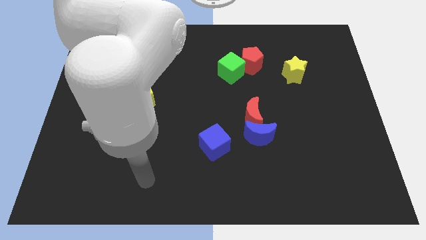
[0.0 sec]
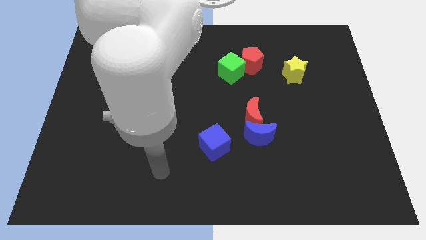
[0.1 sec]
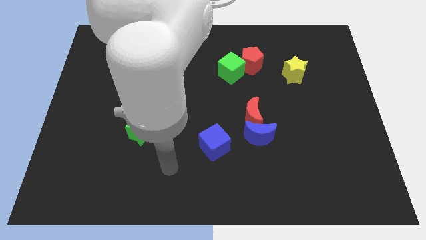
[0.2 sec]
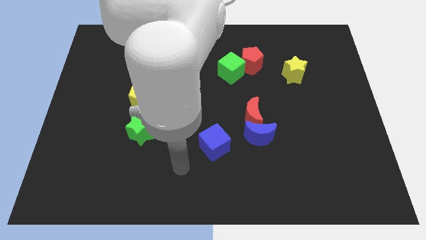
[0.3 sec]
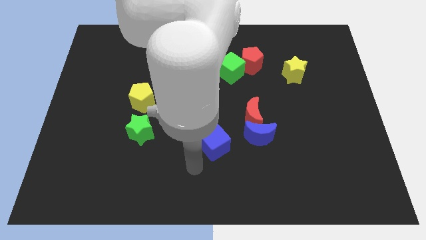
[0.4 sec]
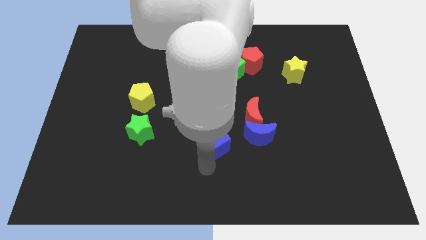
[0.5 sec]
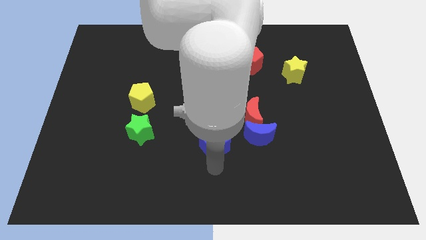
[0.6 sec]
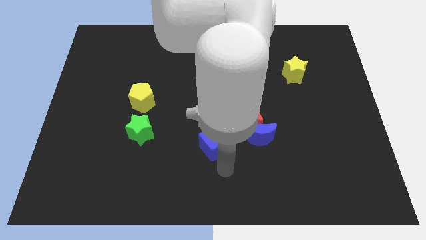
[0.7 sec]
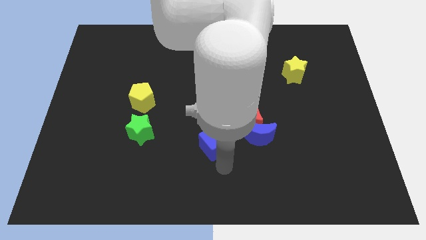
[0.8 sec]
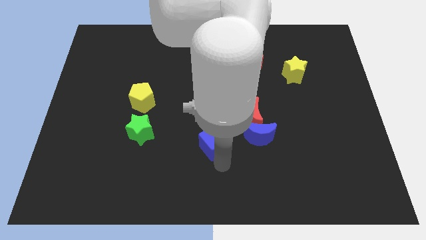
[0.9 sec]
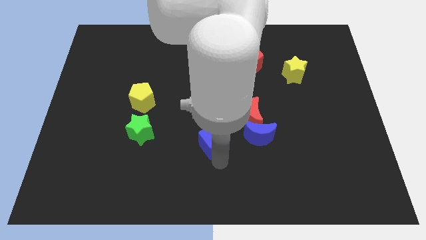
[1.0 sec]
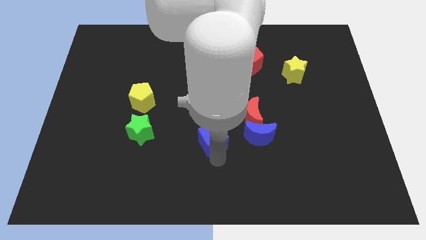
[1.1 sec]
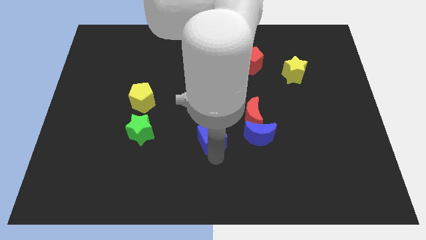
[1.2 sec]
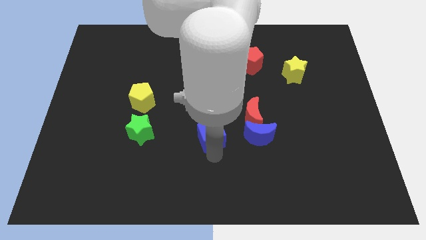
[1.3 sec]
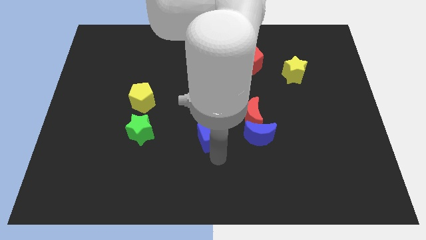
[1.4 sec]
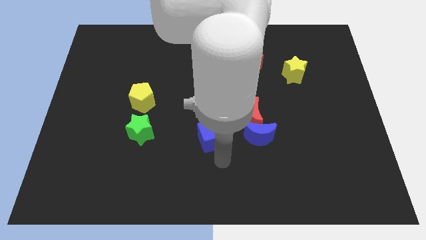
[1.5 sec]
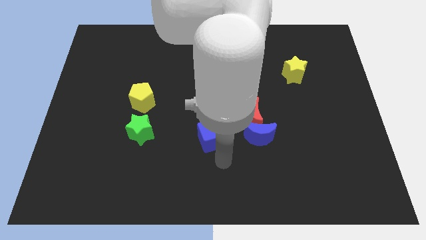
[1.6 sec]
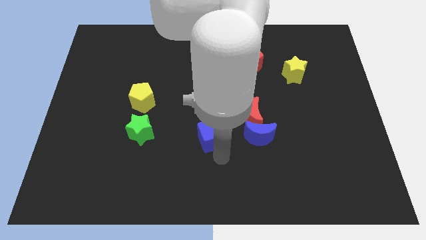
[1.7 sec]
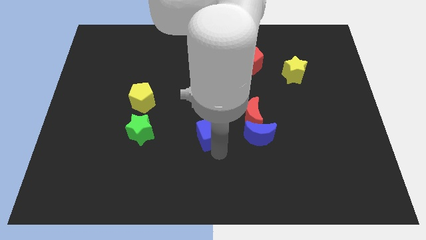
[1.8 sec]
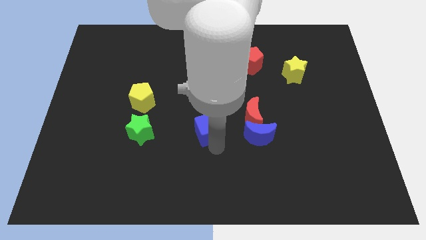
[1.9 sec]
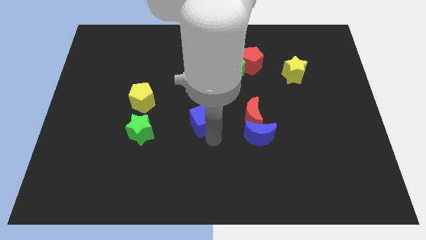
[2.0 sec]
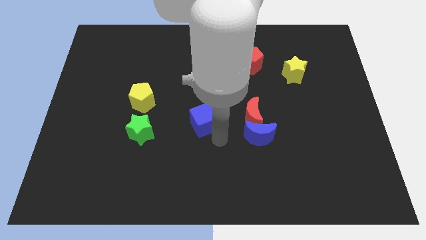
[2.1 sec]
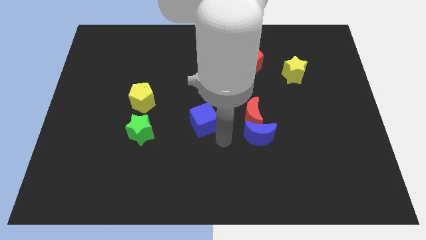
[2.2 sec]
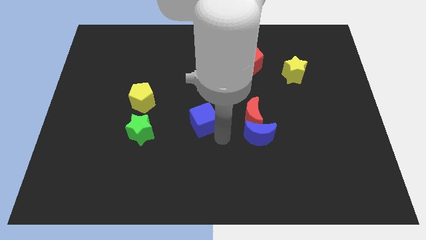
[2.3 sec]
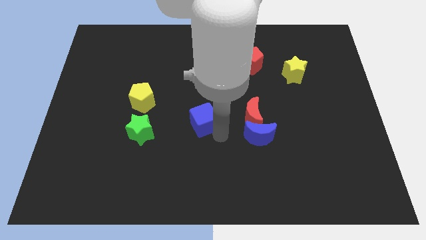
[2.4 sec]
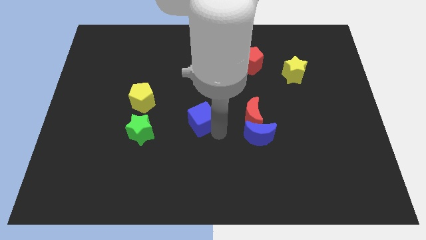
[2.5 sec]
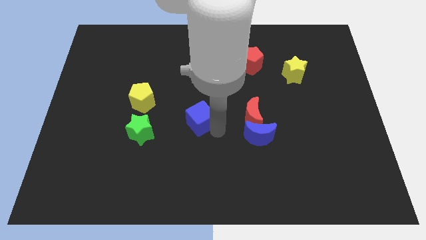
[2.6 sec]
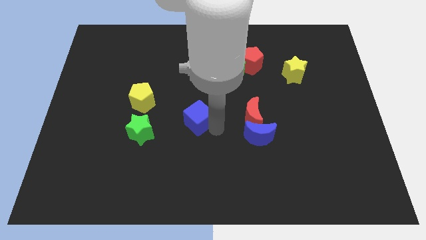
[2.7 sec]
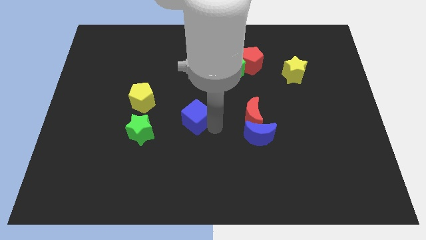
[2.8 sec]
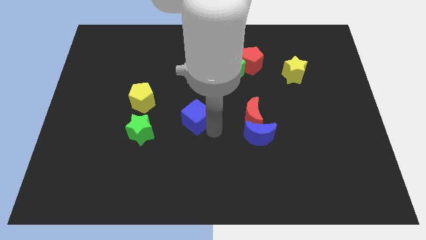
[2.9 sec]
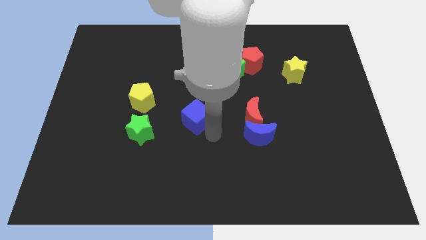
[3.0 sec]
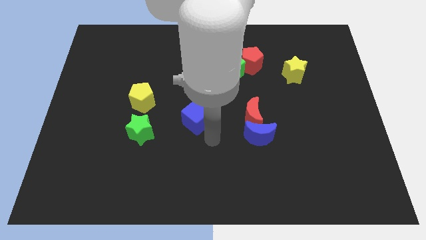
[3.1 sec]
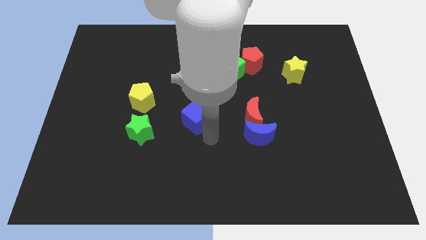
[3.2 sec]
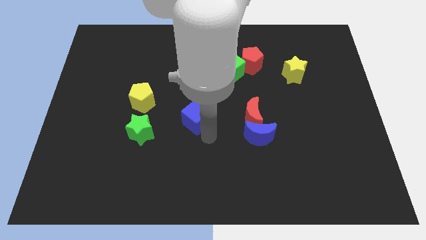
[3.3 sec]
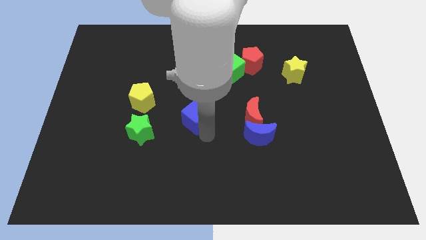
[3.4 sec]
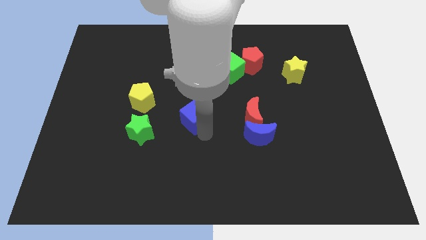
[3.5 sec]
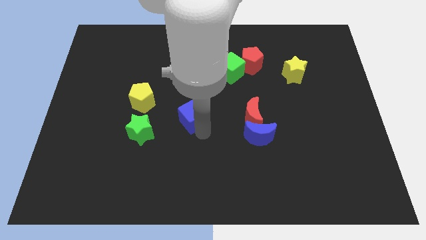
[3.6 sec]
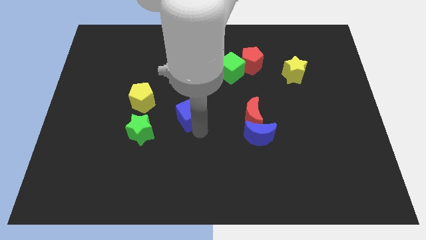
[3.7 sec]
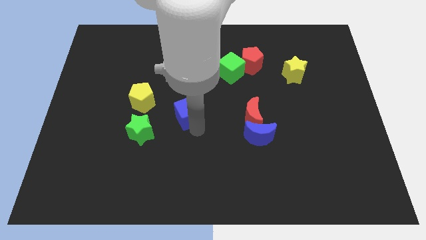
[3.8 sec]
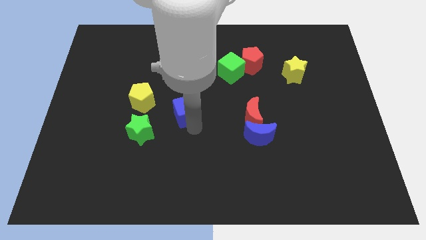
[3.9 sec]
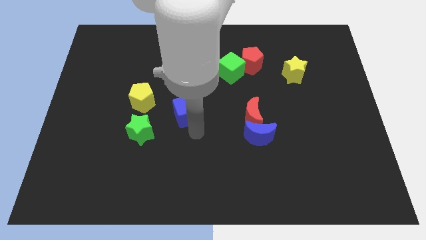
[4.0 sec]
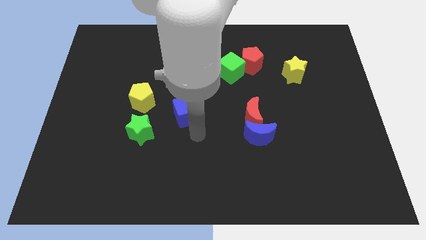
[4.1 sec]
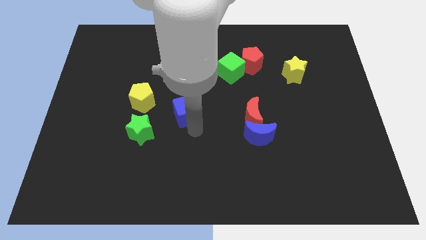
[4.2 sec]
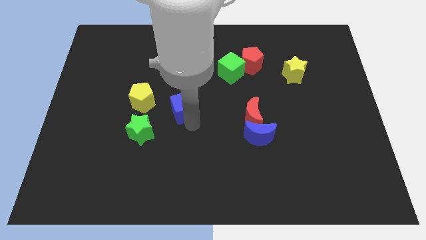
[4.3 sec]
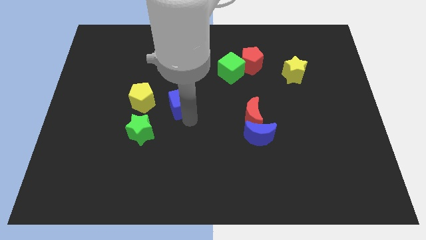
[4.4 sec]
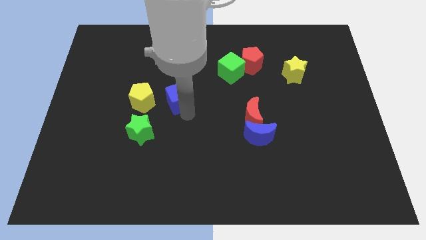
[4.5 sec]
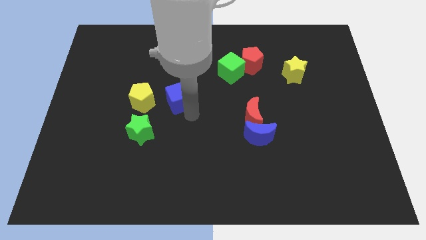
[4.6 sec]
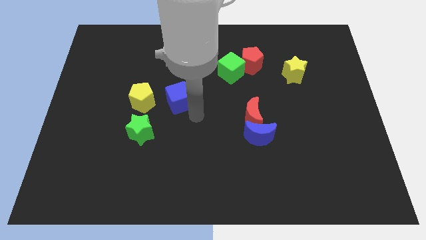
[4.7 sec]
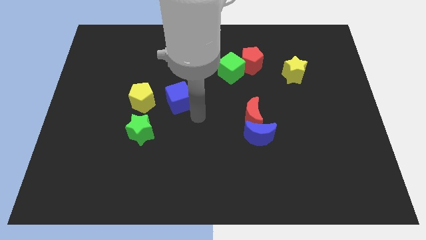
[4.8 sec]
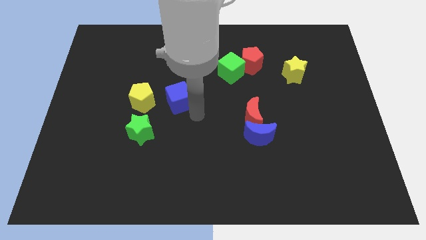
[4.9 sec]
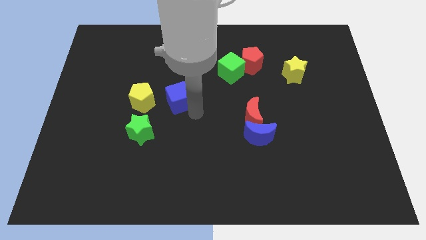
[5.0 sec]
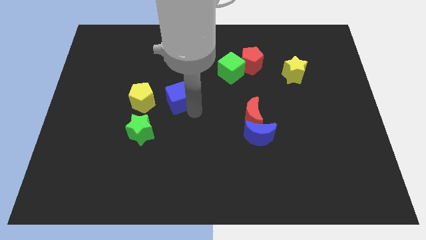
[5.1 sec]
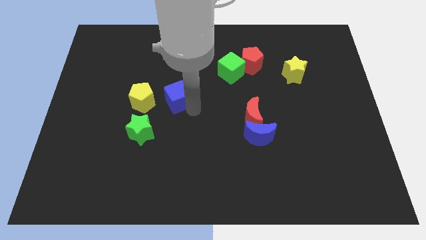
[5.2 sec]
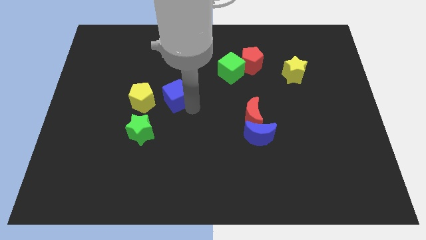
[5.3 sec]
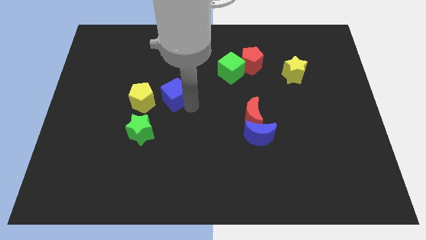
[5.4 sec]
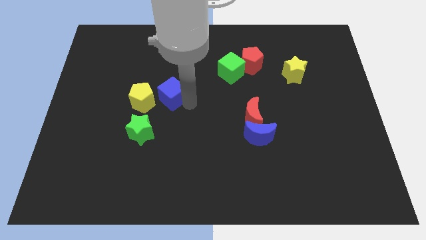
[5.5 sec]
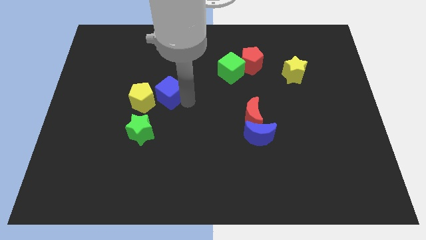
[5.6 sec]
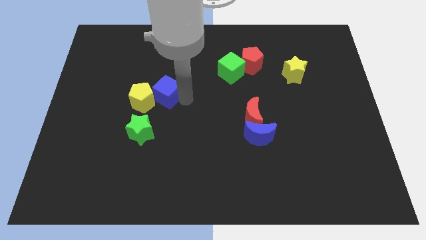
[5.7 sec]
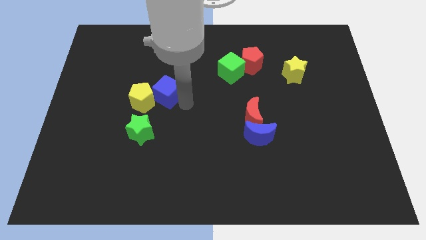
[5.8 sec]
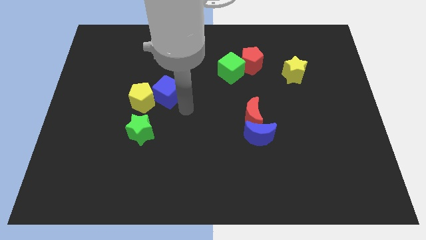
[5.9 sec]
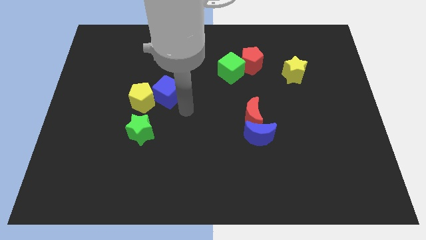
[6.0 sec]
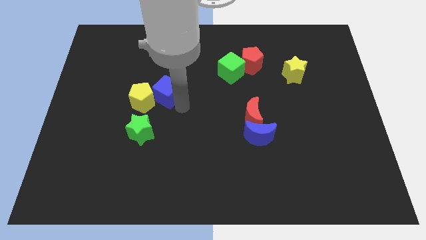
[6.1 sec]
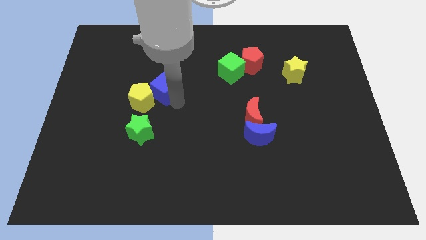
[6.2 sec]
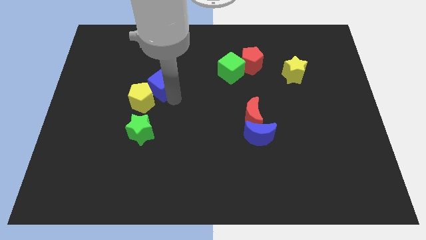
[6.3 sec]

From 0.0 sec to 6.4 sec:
slide the blue cube upwards and to the left diagonally

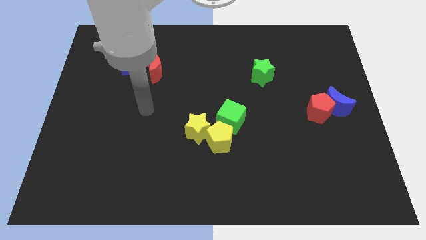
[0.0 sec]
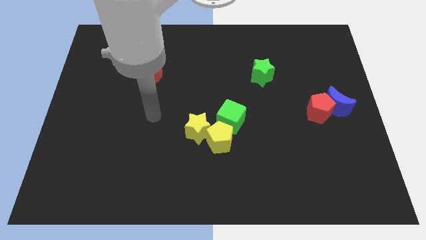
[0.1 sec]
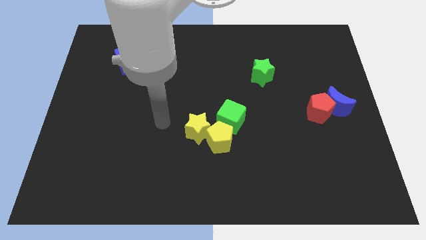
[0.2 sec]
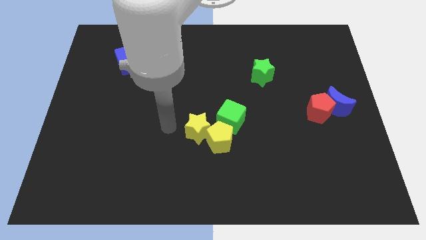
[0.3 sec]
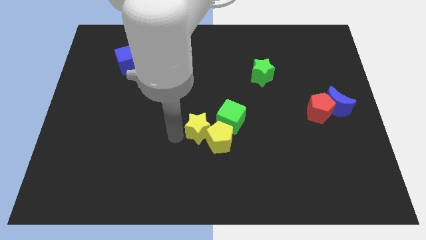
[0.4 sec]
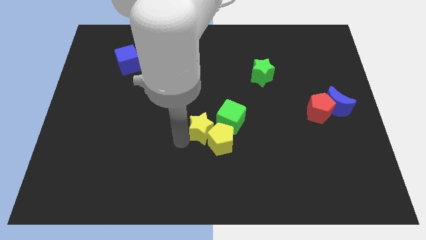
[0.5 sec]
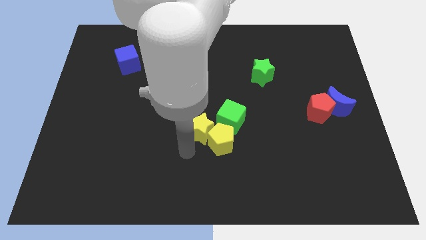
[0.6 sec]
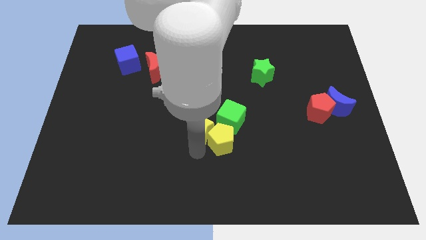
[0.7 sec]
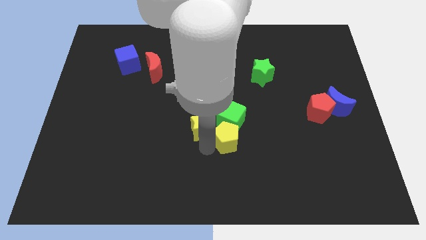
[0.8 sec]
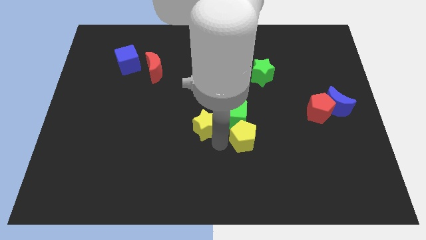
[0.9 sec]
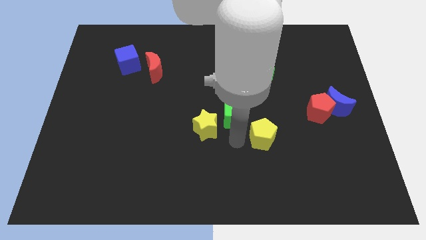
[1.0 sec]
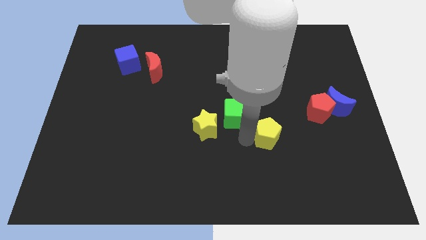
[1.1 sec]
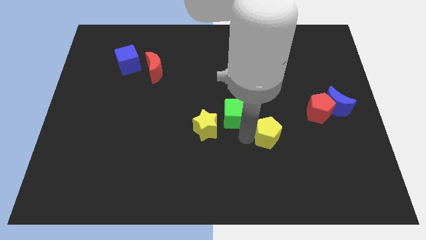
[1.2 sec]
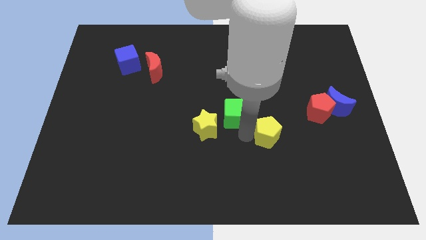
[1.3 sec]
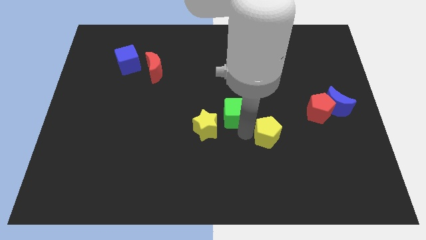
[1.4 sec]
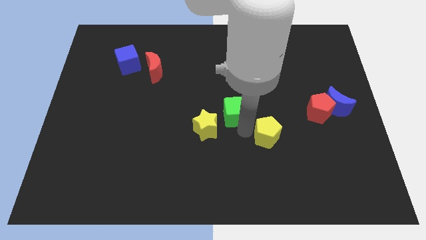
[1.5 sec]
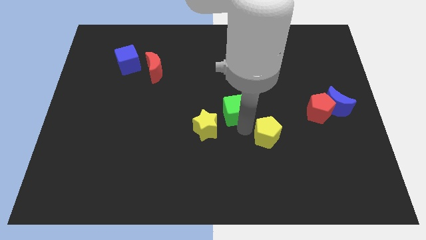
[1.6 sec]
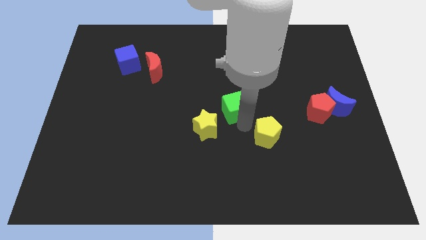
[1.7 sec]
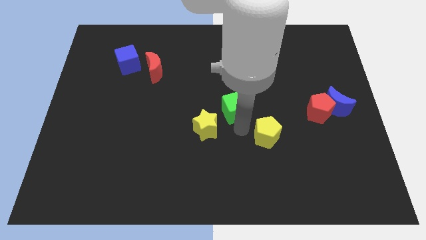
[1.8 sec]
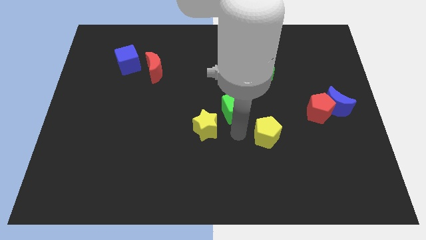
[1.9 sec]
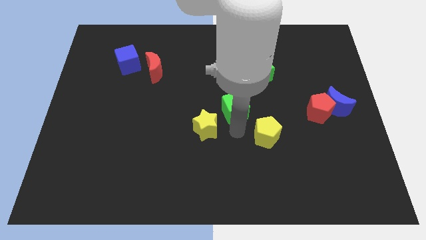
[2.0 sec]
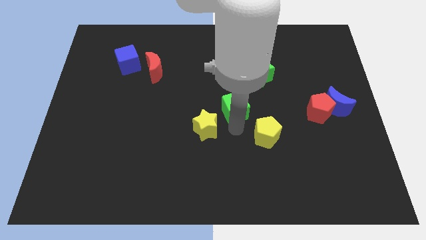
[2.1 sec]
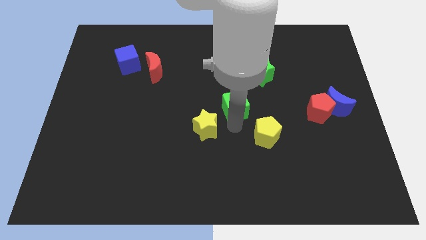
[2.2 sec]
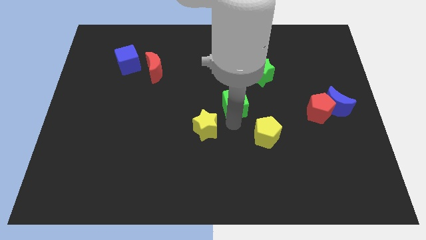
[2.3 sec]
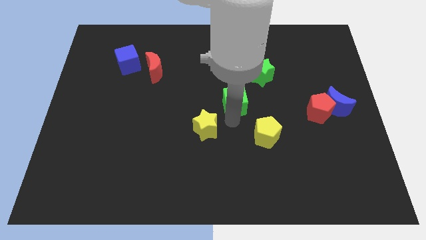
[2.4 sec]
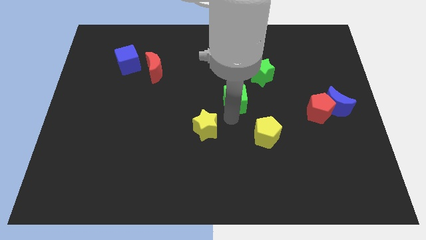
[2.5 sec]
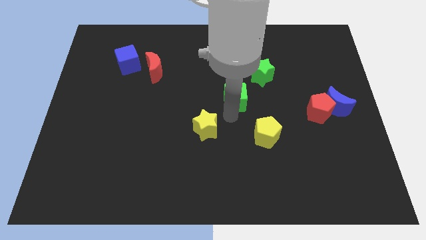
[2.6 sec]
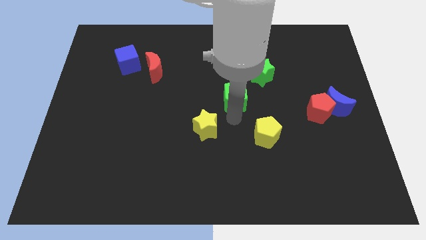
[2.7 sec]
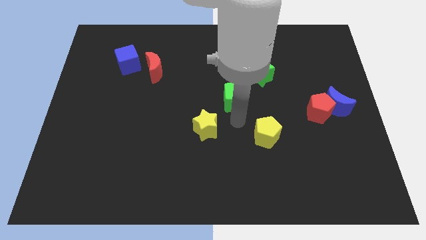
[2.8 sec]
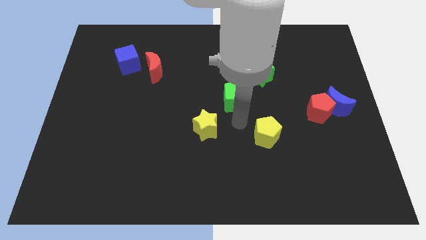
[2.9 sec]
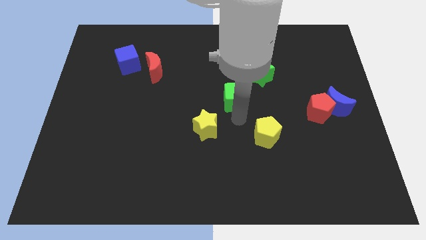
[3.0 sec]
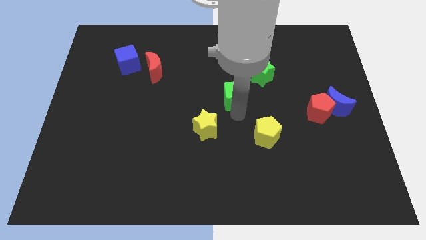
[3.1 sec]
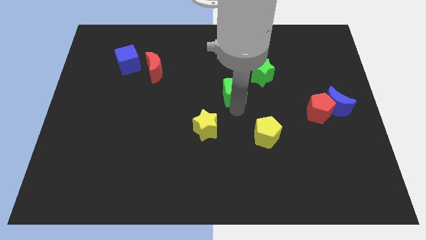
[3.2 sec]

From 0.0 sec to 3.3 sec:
push the green cube up a bit
